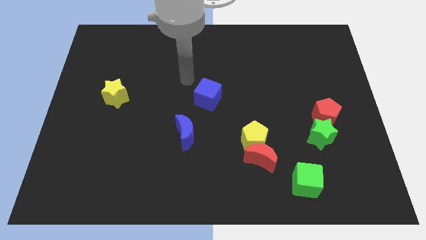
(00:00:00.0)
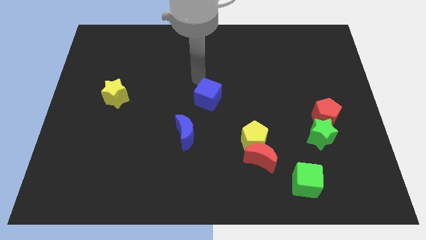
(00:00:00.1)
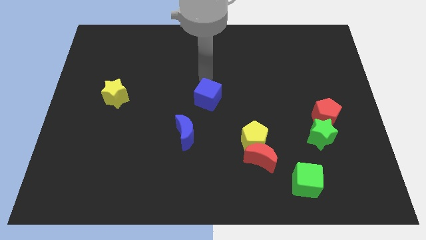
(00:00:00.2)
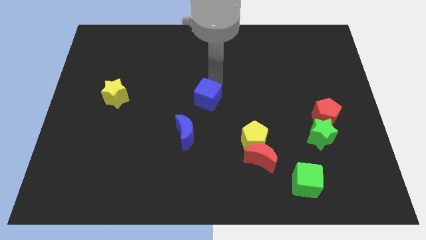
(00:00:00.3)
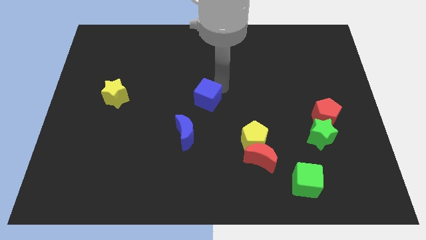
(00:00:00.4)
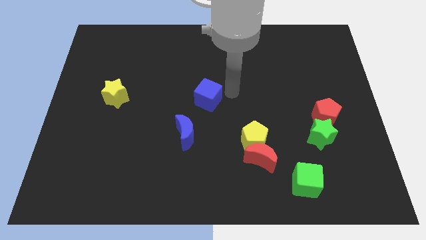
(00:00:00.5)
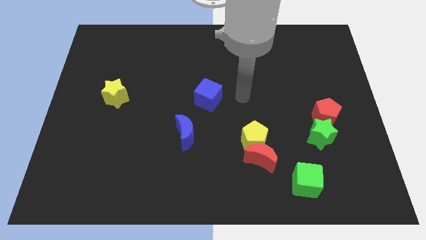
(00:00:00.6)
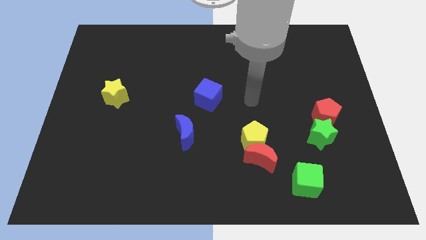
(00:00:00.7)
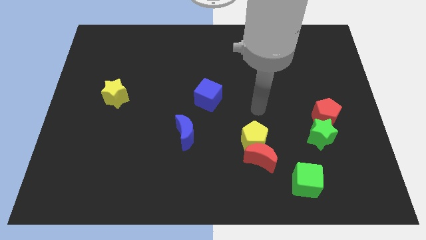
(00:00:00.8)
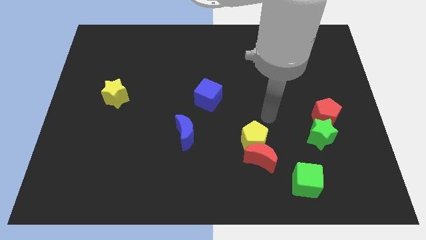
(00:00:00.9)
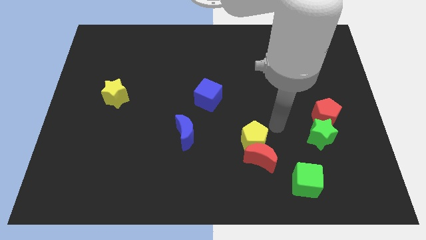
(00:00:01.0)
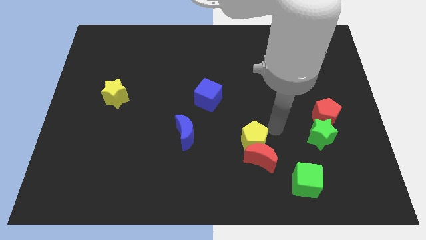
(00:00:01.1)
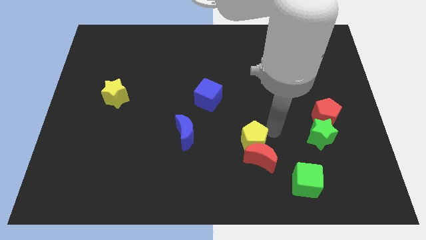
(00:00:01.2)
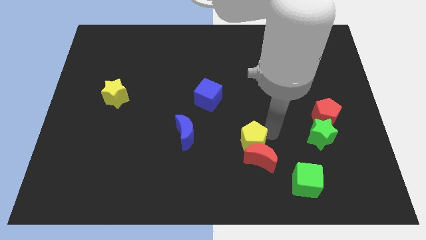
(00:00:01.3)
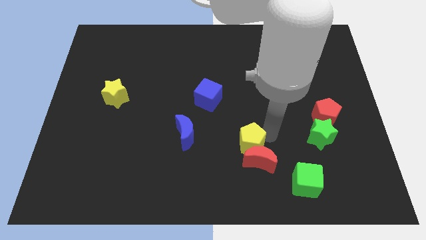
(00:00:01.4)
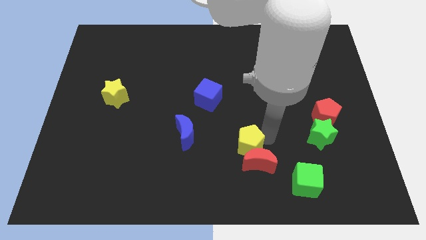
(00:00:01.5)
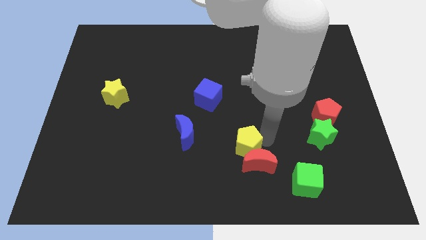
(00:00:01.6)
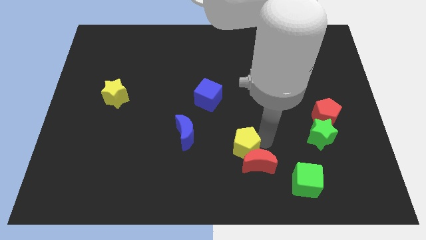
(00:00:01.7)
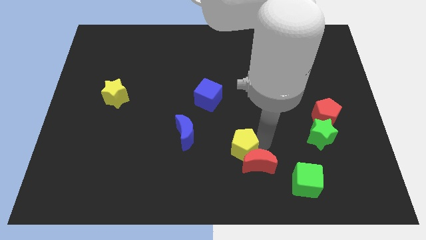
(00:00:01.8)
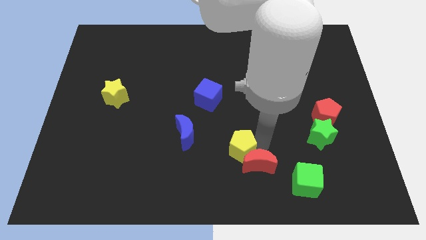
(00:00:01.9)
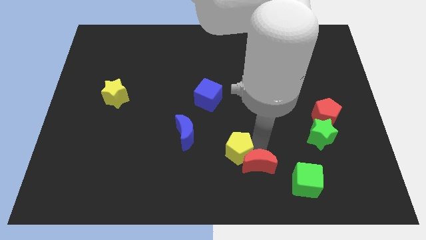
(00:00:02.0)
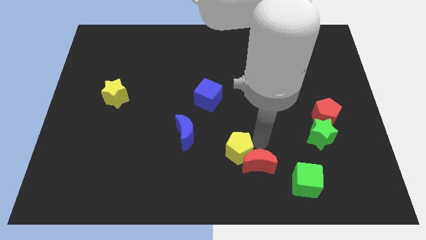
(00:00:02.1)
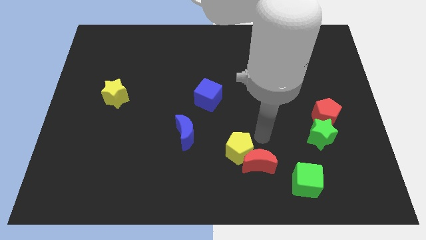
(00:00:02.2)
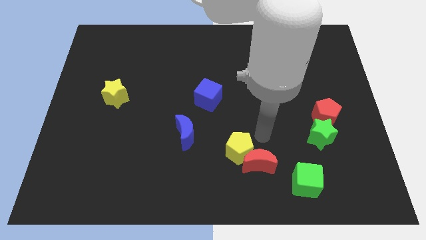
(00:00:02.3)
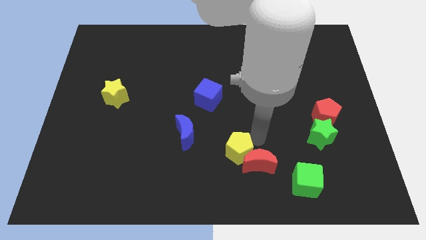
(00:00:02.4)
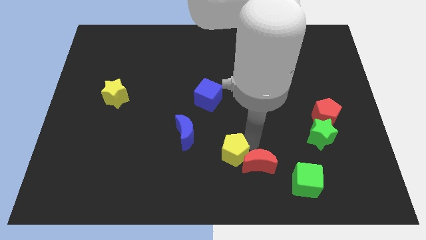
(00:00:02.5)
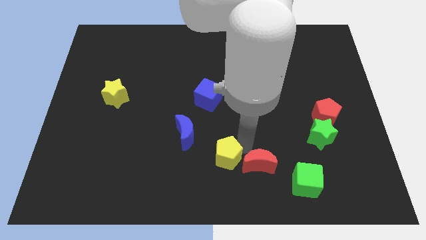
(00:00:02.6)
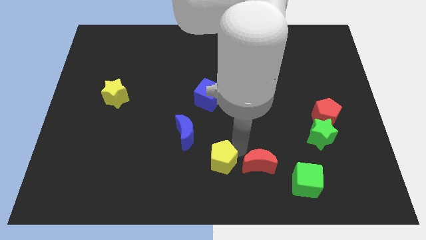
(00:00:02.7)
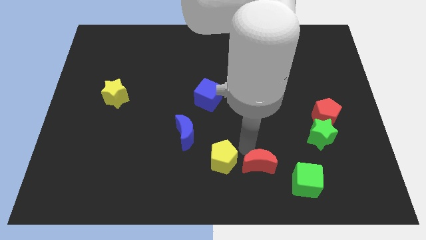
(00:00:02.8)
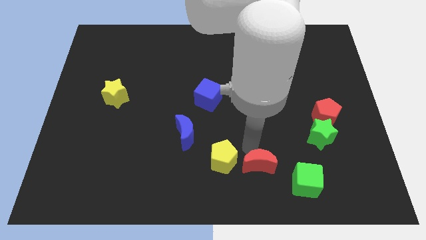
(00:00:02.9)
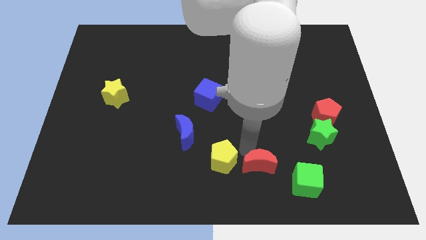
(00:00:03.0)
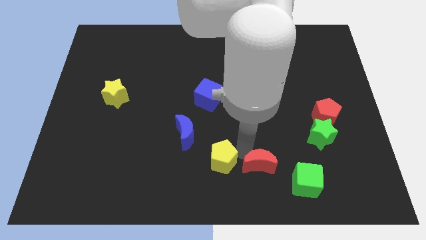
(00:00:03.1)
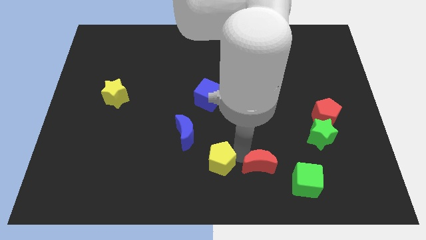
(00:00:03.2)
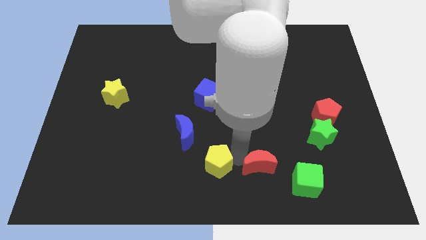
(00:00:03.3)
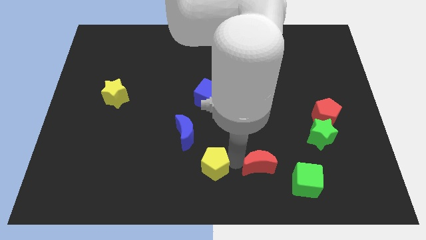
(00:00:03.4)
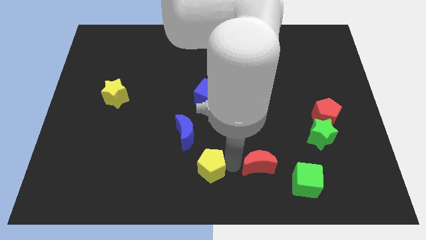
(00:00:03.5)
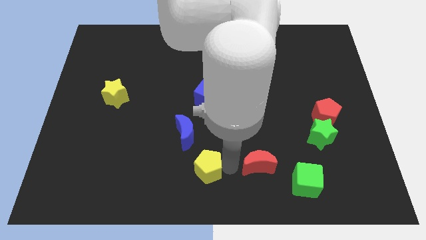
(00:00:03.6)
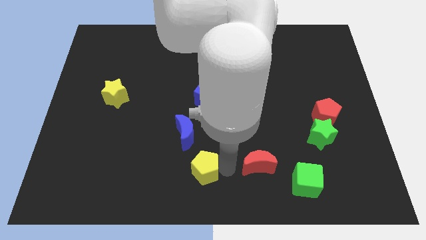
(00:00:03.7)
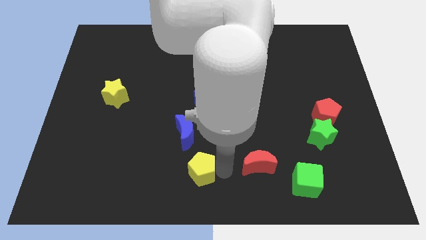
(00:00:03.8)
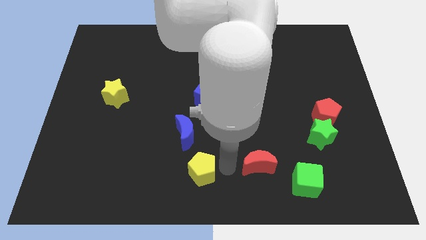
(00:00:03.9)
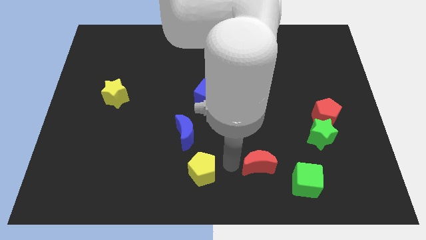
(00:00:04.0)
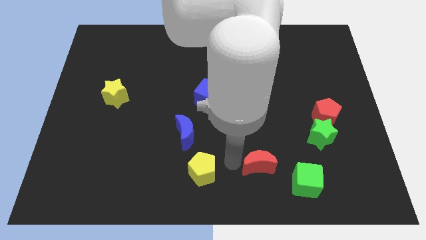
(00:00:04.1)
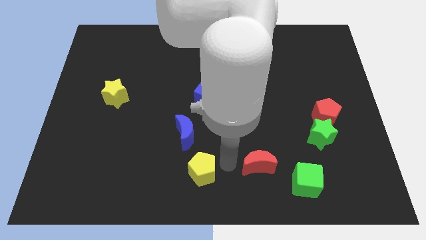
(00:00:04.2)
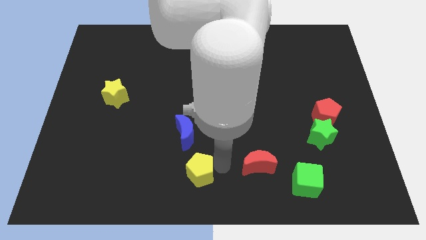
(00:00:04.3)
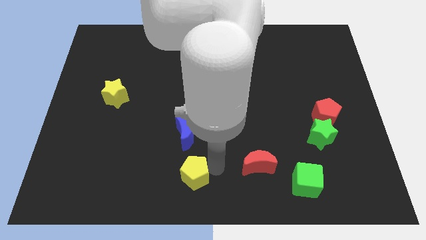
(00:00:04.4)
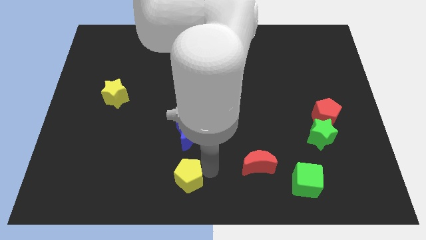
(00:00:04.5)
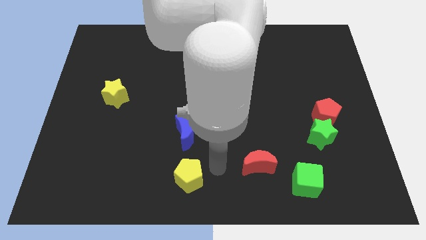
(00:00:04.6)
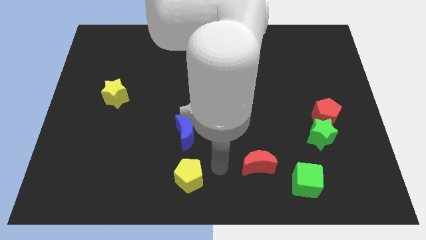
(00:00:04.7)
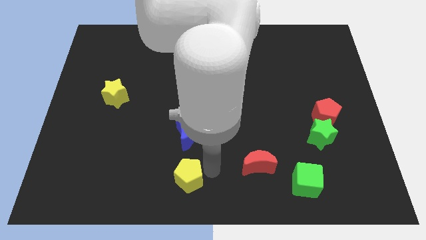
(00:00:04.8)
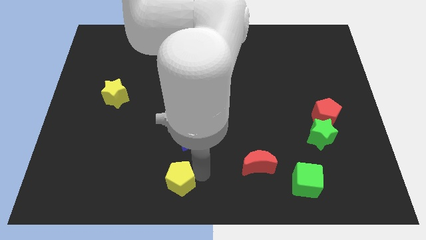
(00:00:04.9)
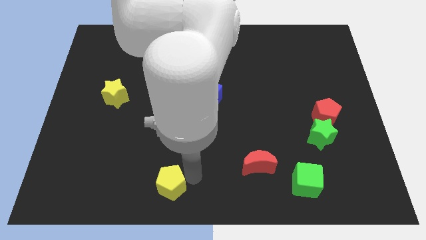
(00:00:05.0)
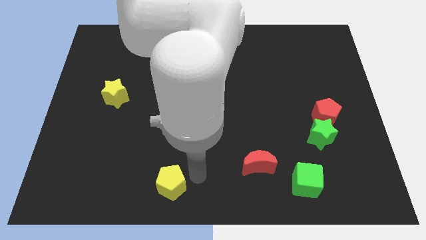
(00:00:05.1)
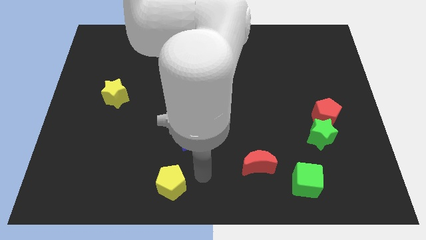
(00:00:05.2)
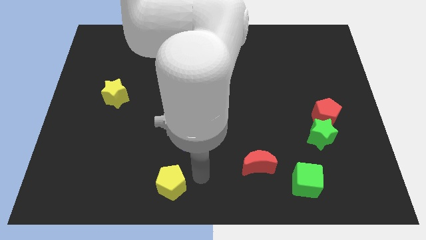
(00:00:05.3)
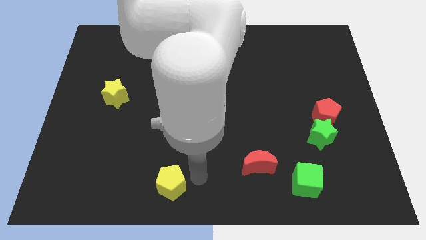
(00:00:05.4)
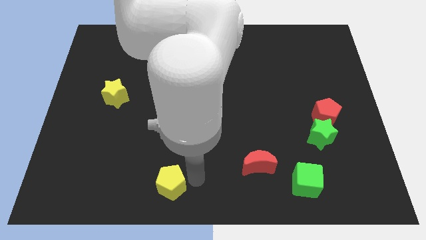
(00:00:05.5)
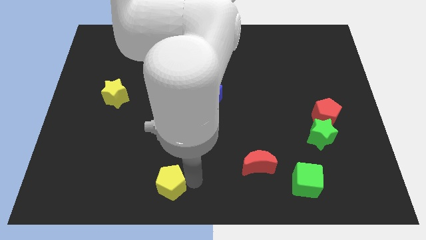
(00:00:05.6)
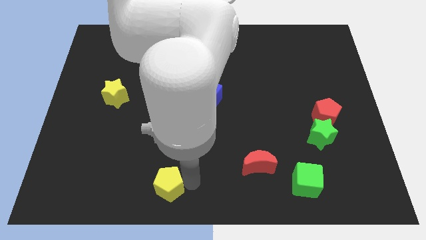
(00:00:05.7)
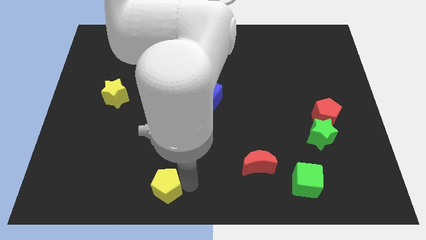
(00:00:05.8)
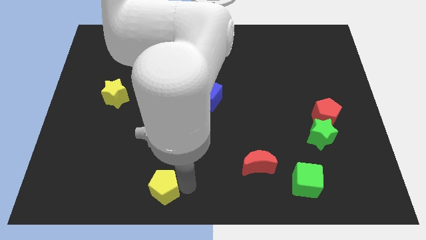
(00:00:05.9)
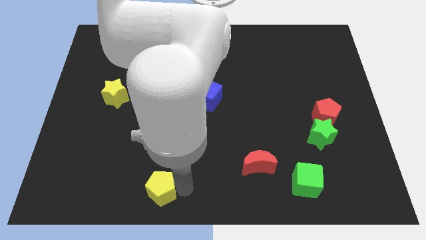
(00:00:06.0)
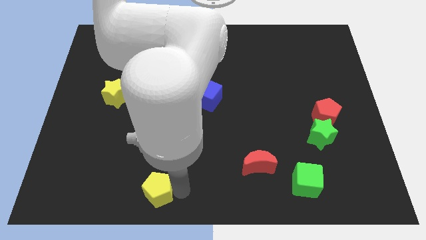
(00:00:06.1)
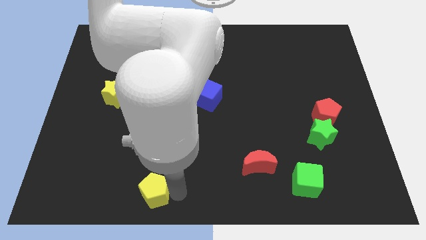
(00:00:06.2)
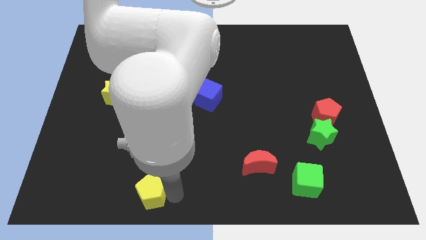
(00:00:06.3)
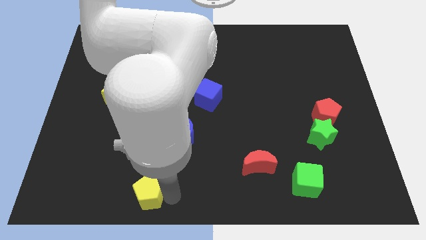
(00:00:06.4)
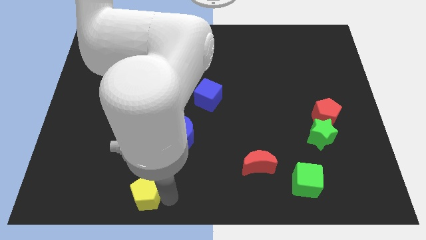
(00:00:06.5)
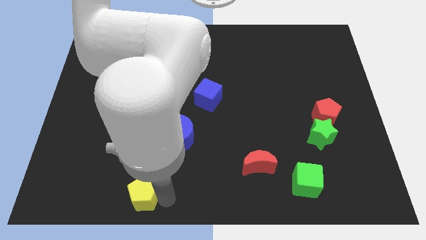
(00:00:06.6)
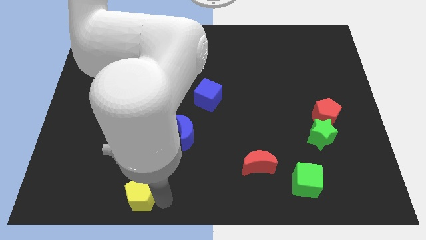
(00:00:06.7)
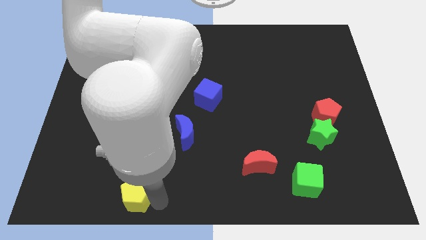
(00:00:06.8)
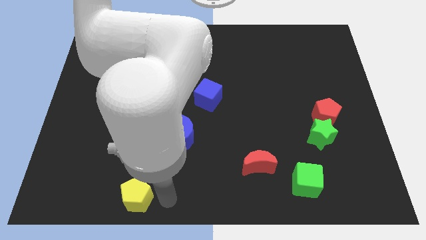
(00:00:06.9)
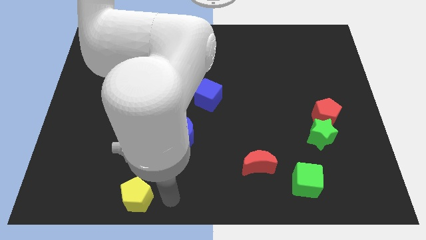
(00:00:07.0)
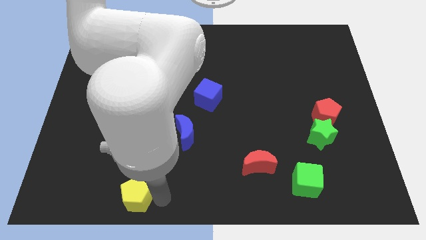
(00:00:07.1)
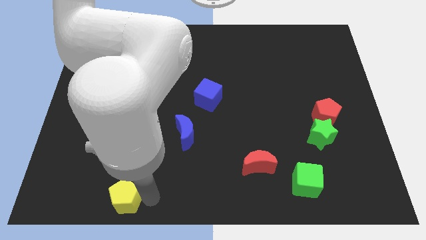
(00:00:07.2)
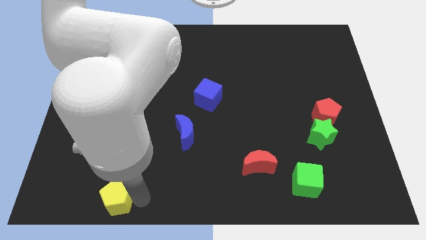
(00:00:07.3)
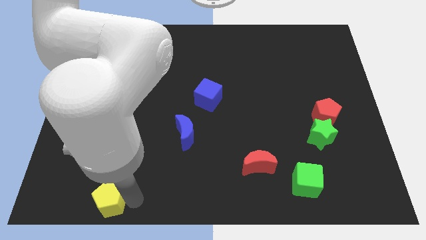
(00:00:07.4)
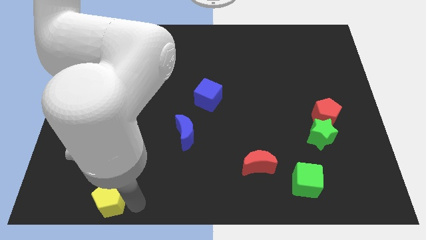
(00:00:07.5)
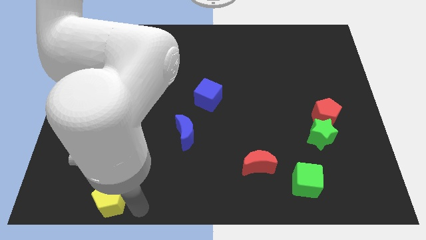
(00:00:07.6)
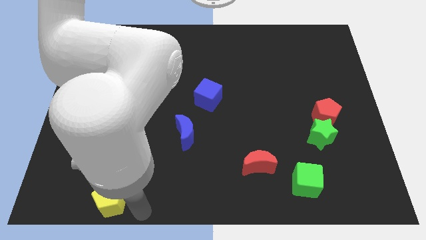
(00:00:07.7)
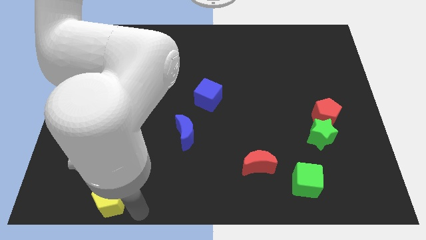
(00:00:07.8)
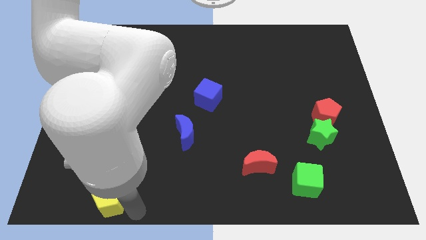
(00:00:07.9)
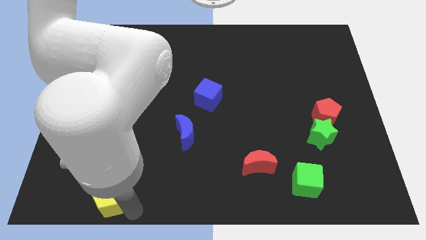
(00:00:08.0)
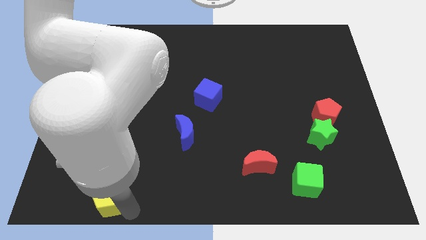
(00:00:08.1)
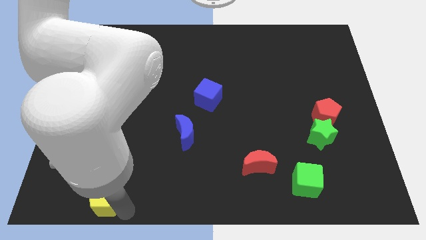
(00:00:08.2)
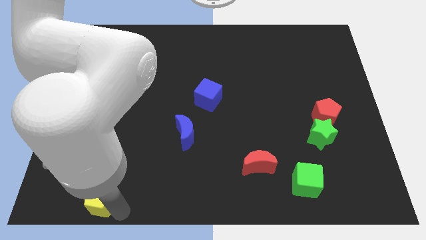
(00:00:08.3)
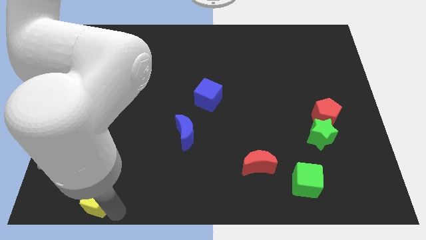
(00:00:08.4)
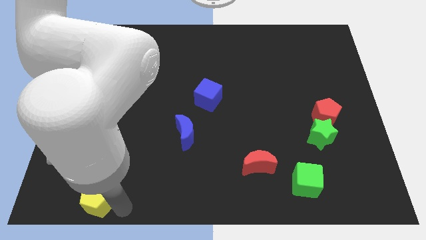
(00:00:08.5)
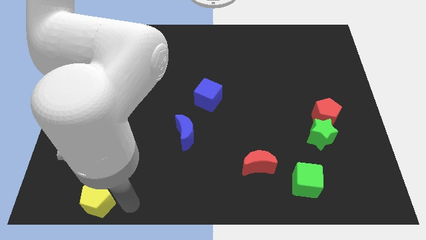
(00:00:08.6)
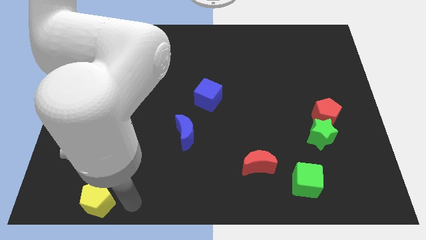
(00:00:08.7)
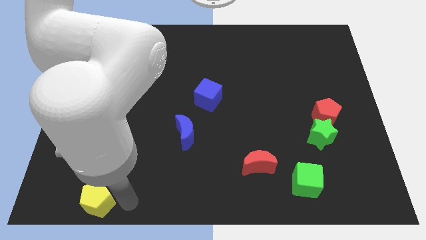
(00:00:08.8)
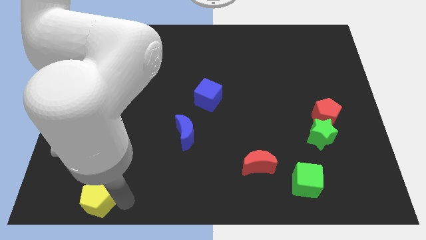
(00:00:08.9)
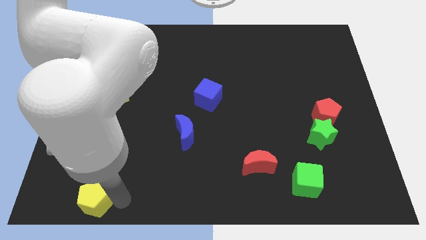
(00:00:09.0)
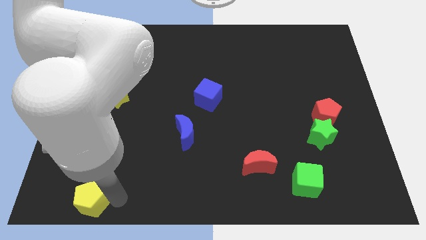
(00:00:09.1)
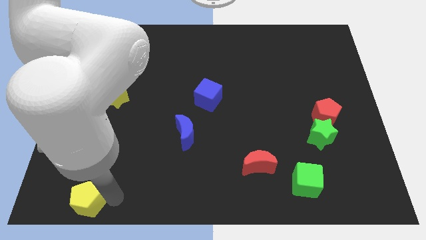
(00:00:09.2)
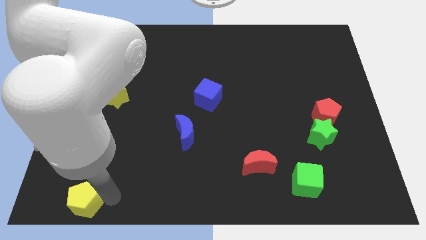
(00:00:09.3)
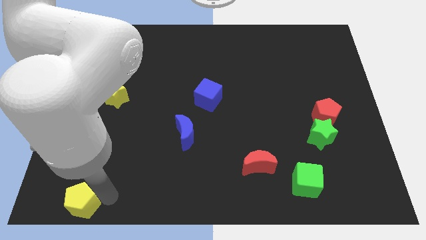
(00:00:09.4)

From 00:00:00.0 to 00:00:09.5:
slide the yellow pentagon to the lower left corner
